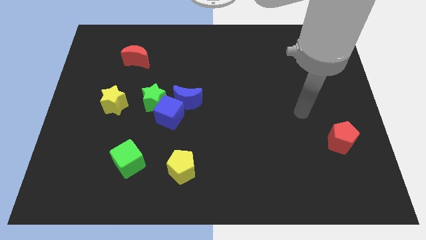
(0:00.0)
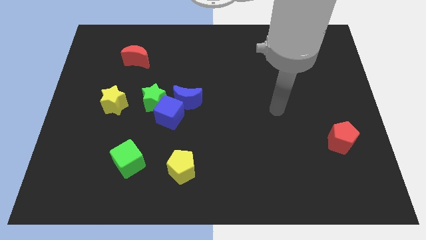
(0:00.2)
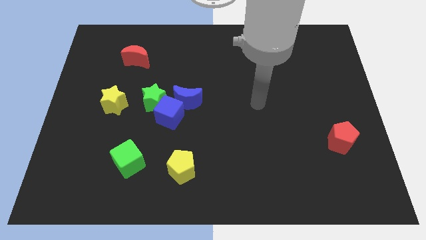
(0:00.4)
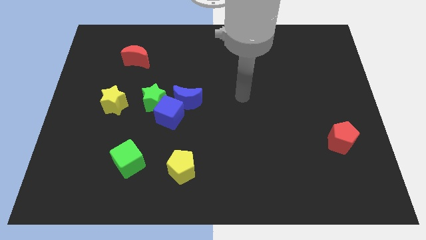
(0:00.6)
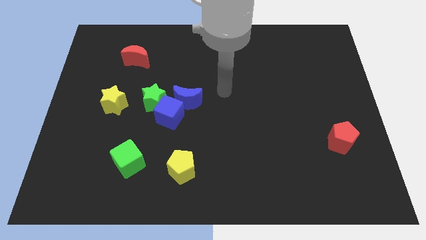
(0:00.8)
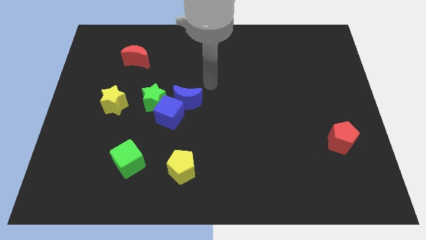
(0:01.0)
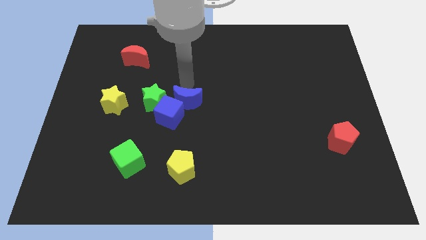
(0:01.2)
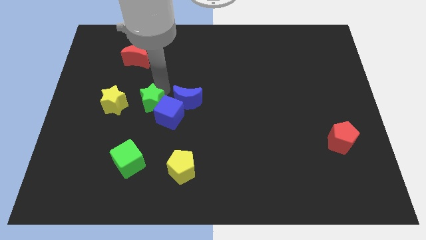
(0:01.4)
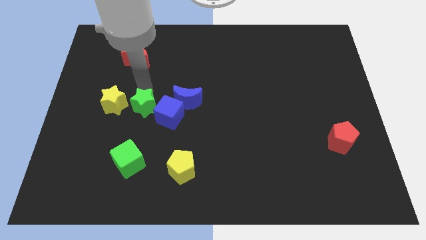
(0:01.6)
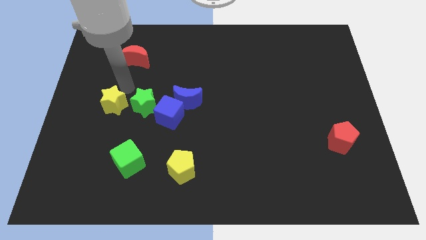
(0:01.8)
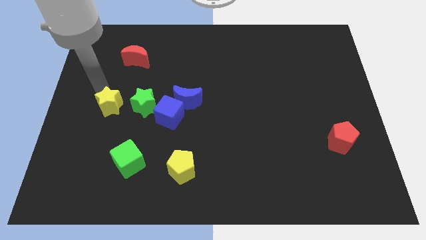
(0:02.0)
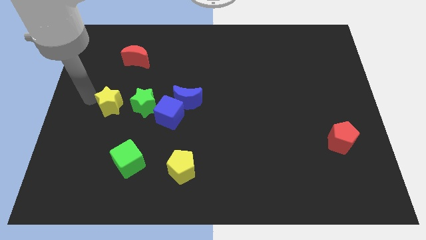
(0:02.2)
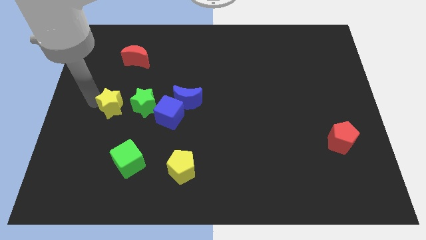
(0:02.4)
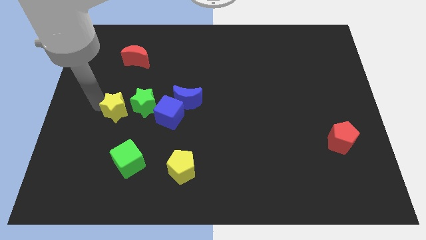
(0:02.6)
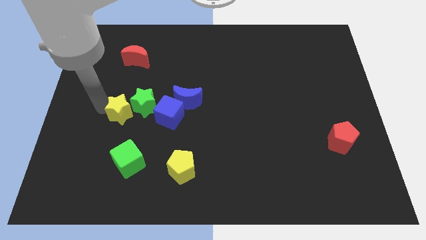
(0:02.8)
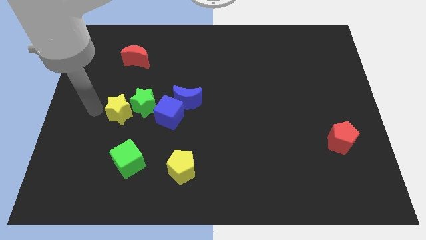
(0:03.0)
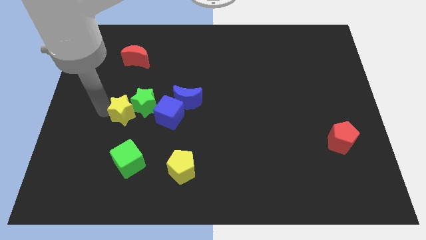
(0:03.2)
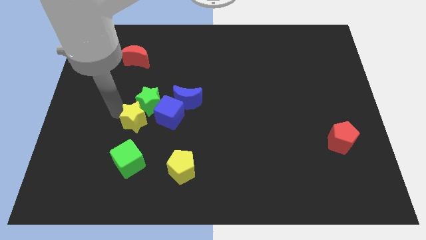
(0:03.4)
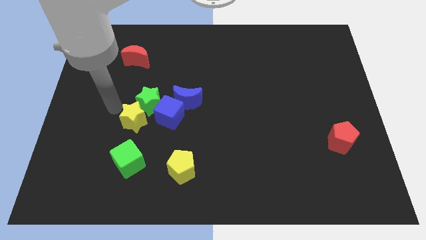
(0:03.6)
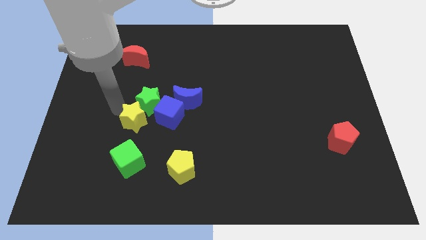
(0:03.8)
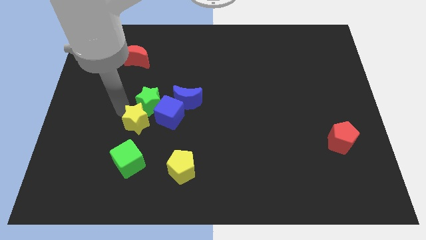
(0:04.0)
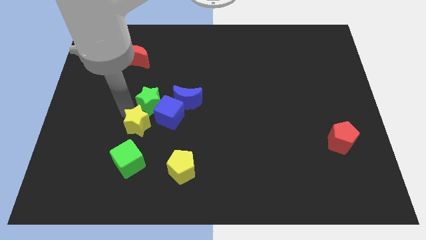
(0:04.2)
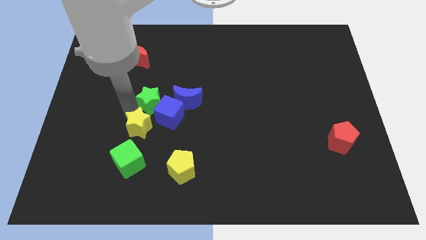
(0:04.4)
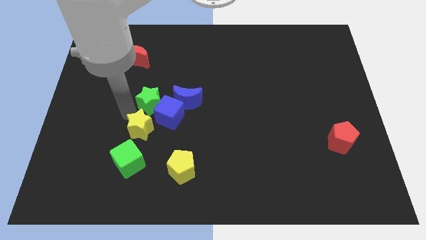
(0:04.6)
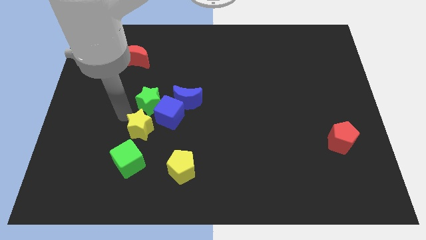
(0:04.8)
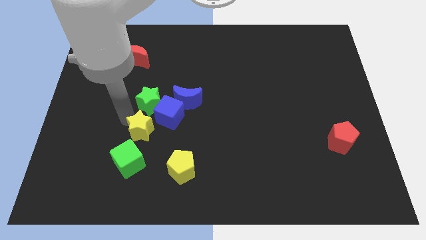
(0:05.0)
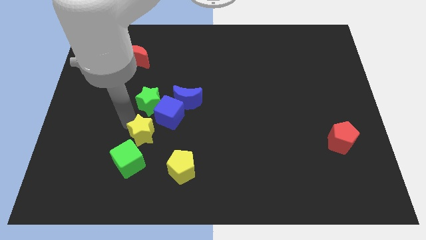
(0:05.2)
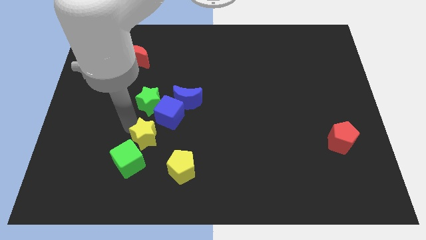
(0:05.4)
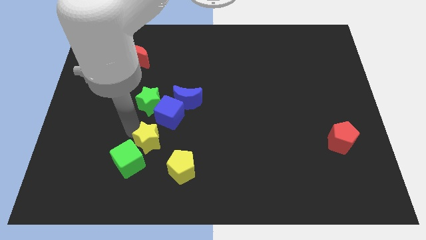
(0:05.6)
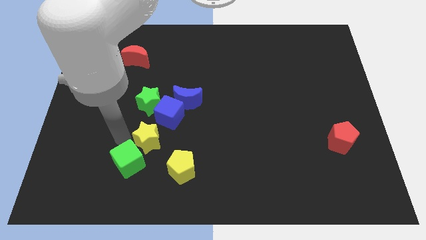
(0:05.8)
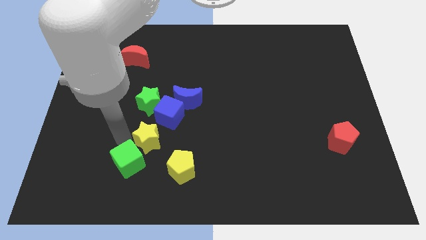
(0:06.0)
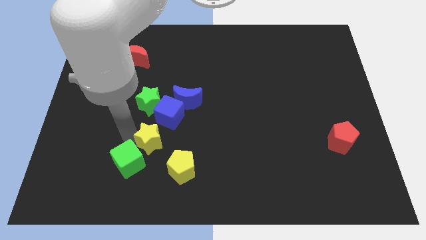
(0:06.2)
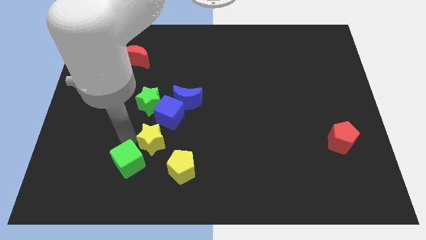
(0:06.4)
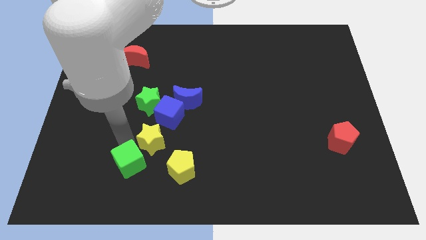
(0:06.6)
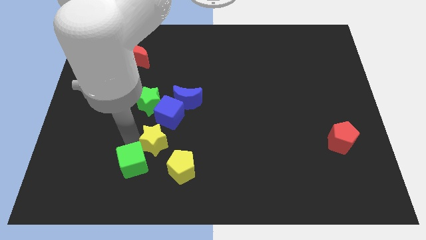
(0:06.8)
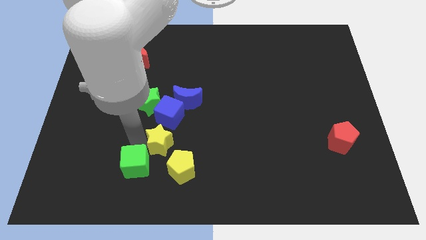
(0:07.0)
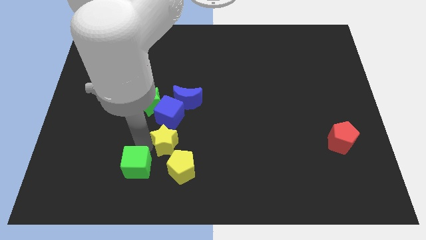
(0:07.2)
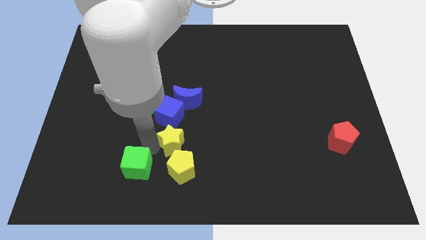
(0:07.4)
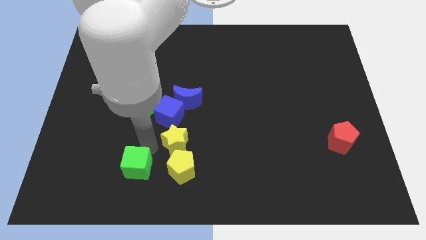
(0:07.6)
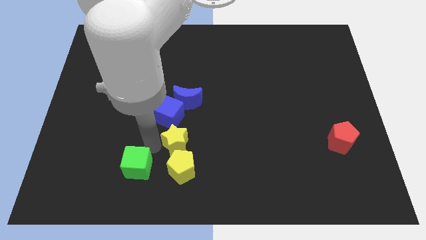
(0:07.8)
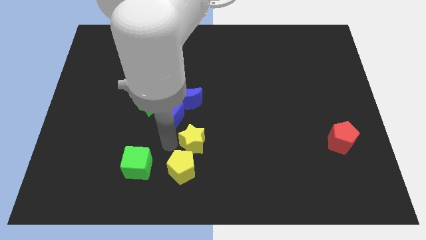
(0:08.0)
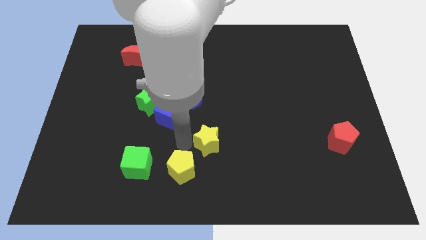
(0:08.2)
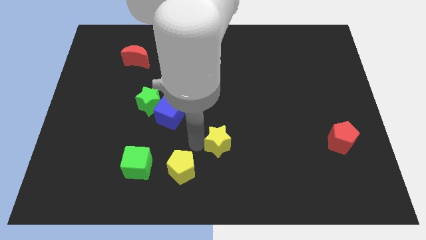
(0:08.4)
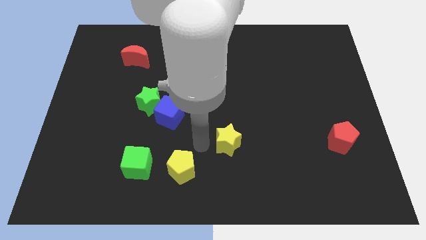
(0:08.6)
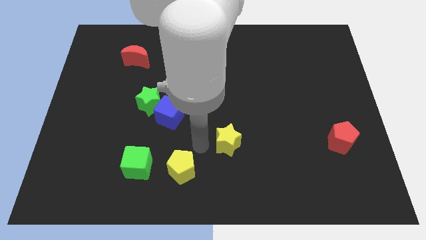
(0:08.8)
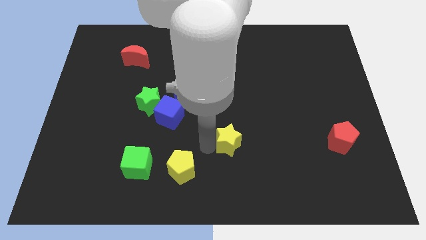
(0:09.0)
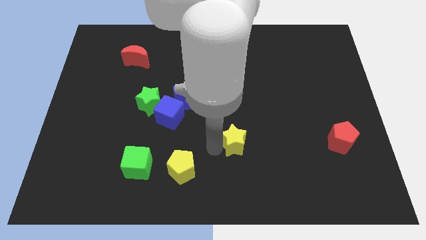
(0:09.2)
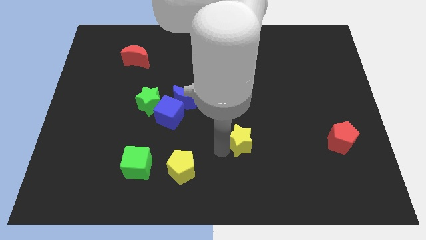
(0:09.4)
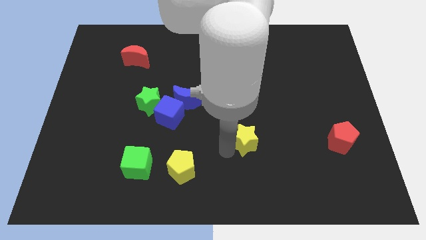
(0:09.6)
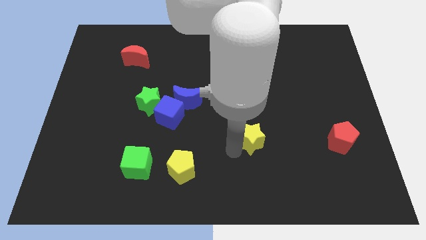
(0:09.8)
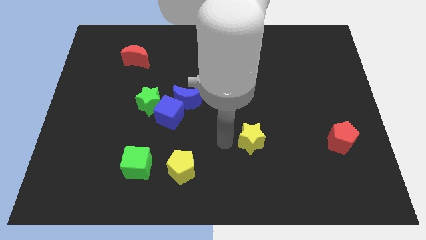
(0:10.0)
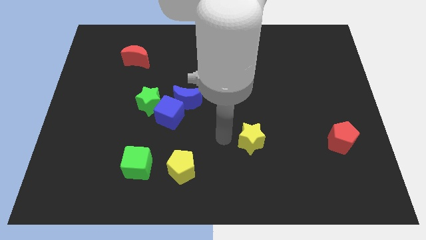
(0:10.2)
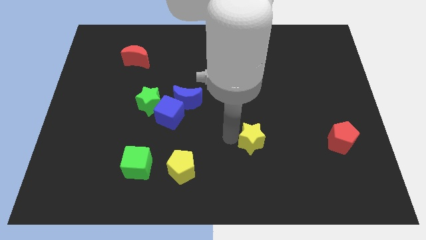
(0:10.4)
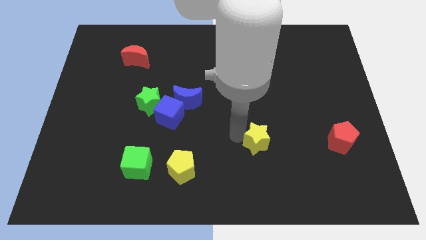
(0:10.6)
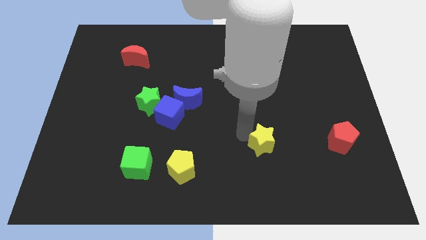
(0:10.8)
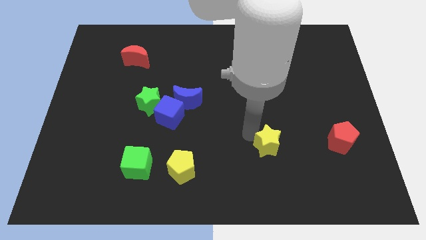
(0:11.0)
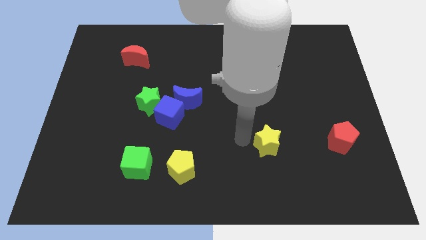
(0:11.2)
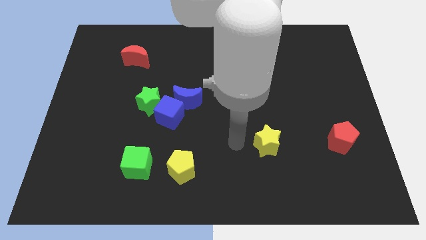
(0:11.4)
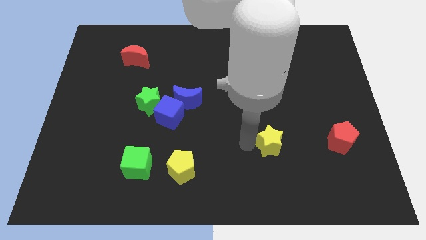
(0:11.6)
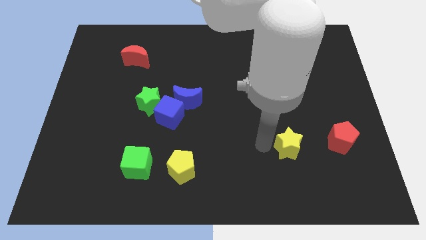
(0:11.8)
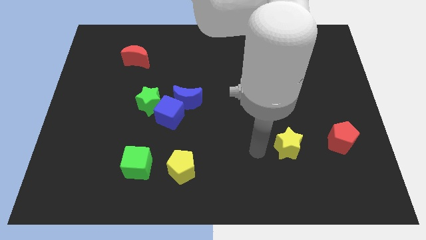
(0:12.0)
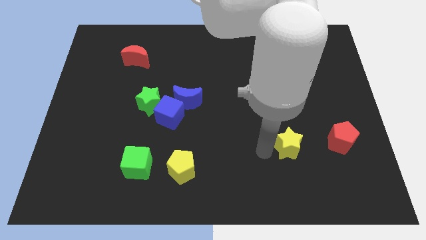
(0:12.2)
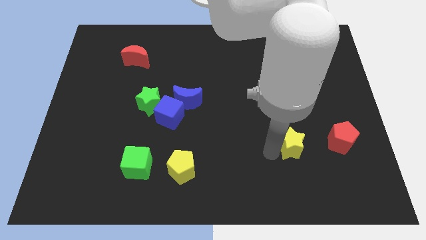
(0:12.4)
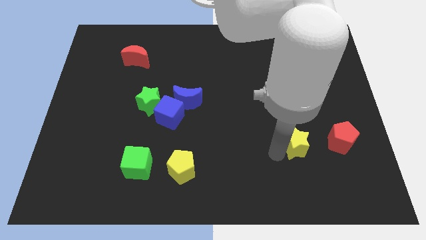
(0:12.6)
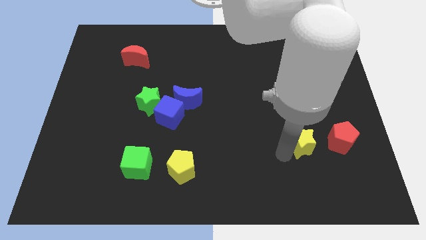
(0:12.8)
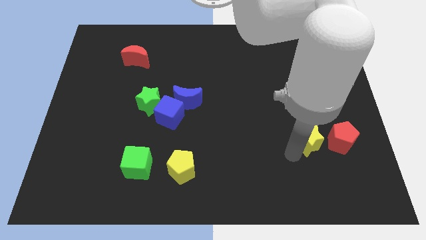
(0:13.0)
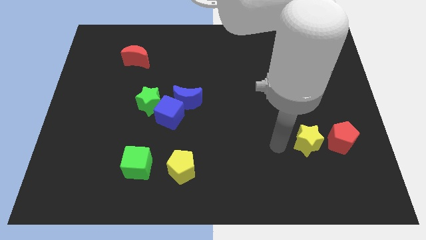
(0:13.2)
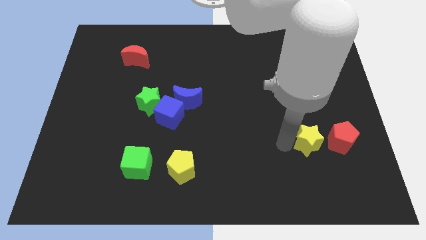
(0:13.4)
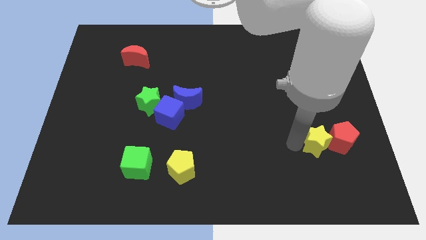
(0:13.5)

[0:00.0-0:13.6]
put the yellow star to the red pentagon

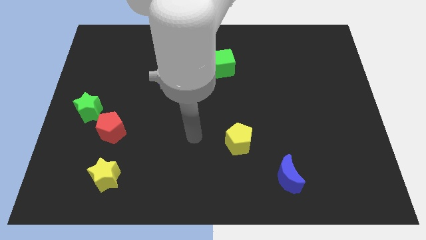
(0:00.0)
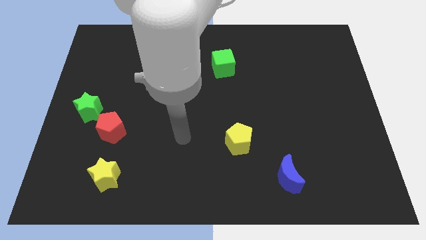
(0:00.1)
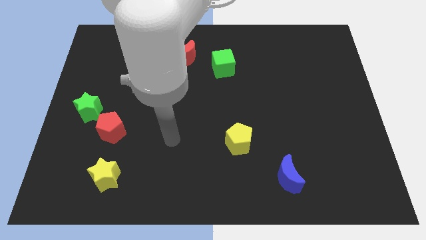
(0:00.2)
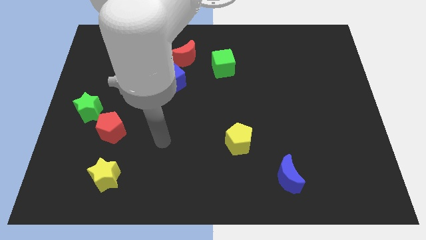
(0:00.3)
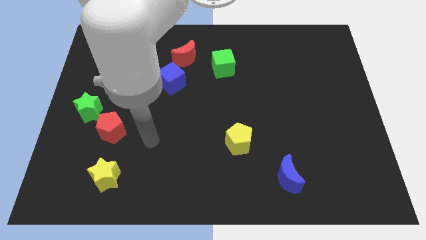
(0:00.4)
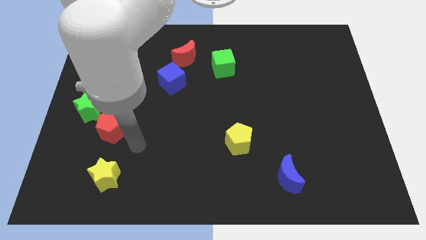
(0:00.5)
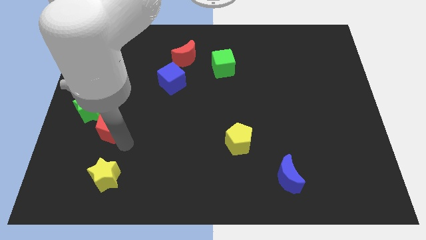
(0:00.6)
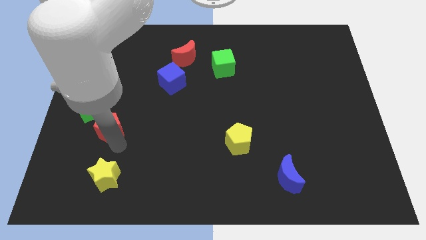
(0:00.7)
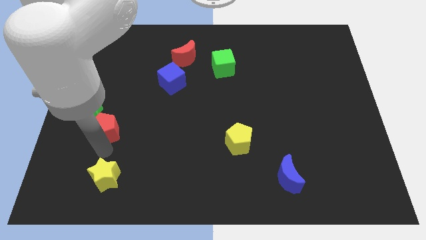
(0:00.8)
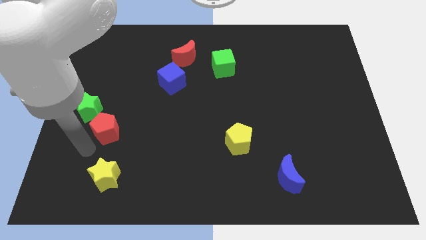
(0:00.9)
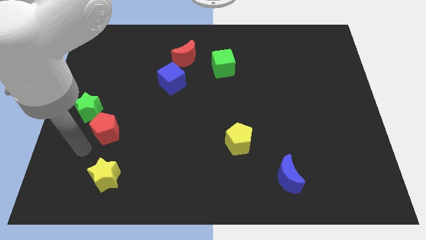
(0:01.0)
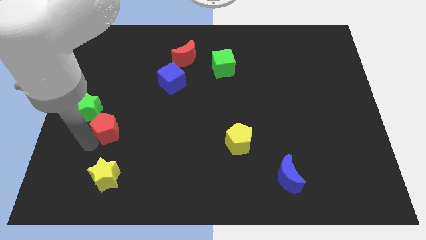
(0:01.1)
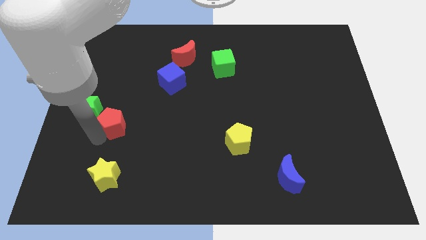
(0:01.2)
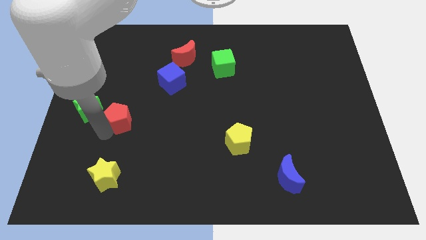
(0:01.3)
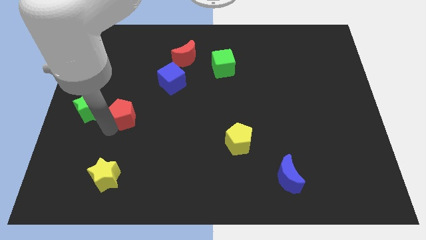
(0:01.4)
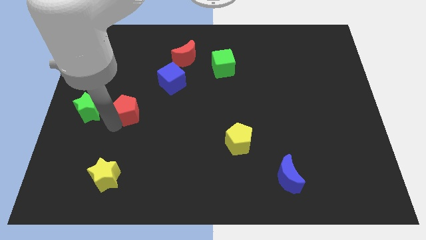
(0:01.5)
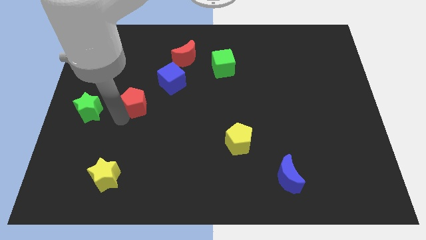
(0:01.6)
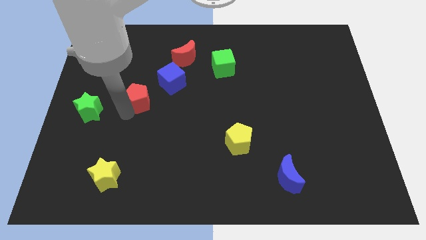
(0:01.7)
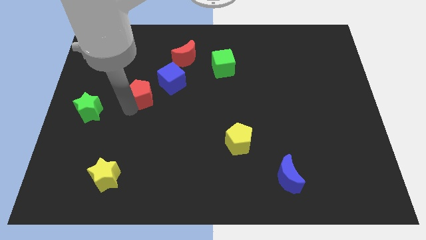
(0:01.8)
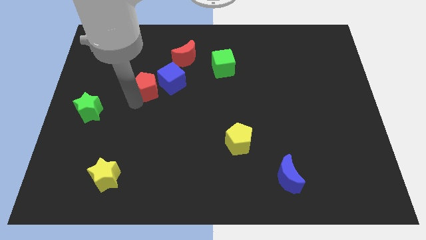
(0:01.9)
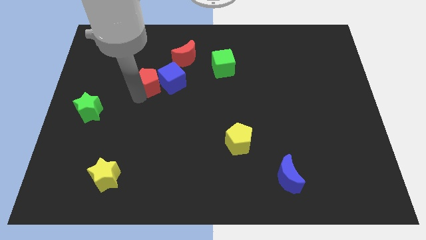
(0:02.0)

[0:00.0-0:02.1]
put the red pentagon towards the blue cube
